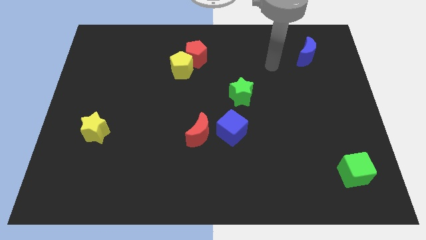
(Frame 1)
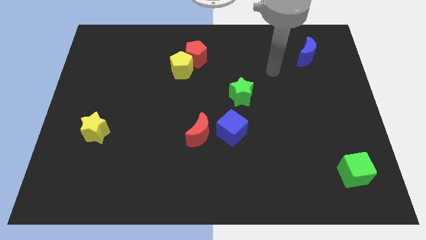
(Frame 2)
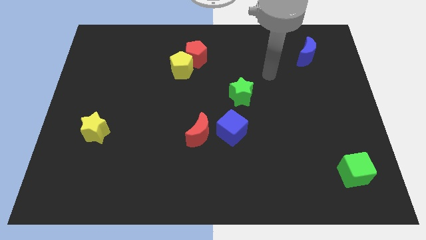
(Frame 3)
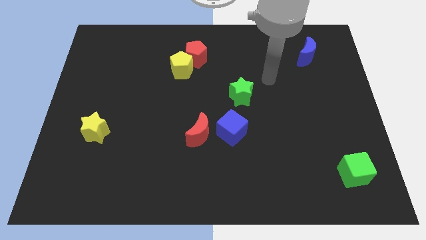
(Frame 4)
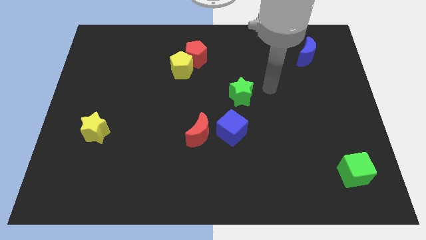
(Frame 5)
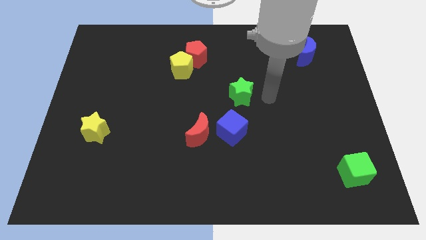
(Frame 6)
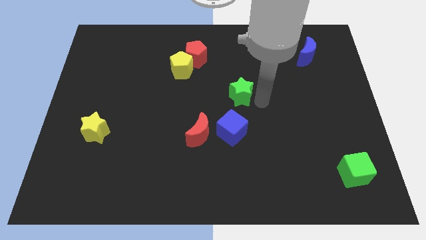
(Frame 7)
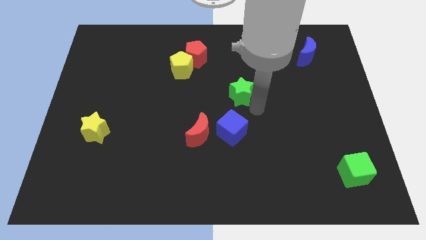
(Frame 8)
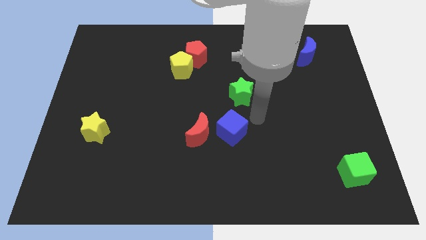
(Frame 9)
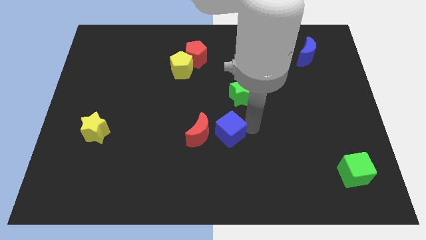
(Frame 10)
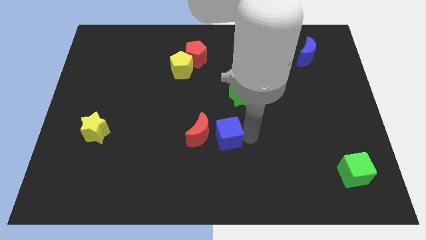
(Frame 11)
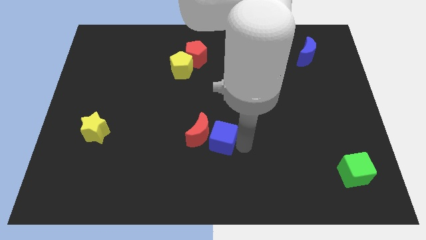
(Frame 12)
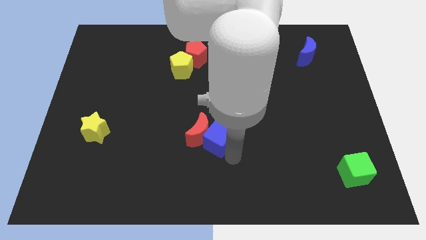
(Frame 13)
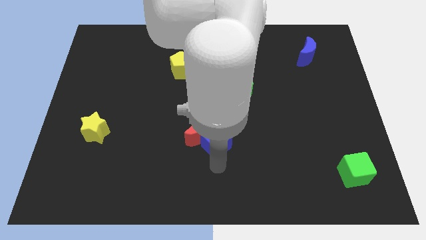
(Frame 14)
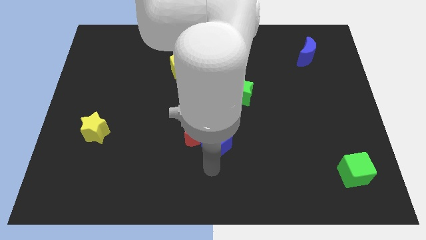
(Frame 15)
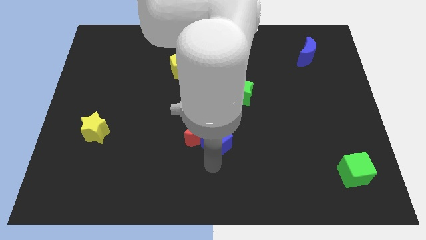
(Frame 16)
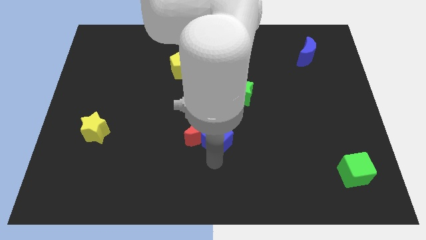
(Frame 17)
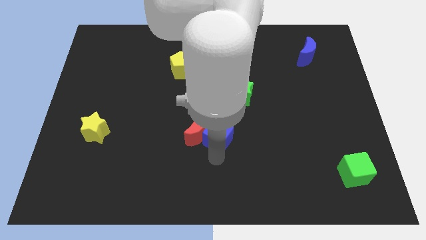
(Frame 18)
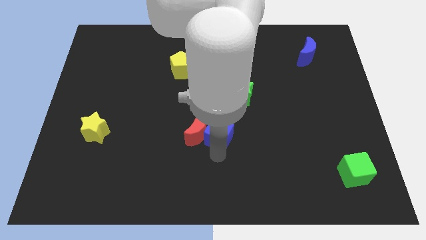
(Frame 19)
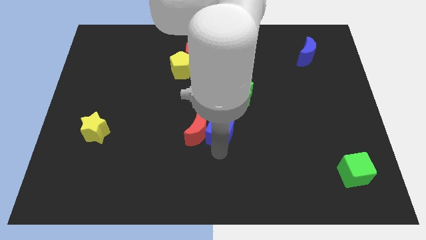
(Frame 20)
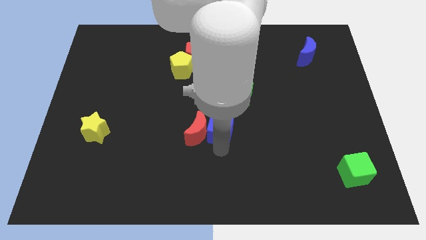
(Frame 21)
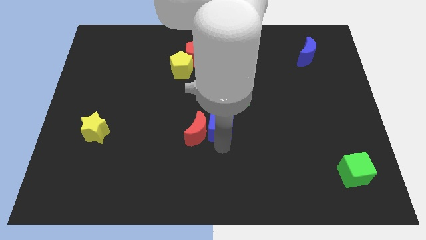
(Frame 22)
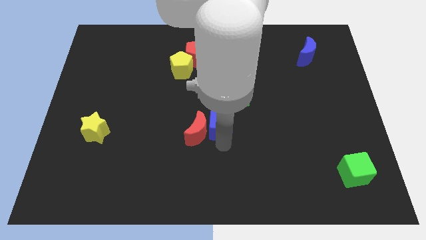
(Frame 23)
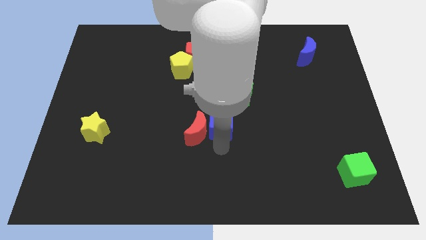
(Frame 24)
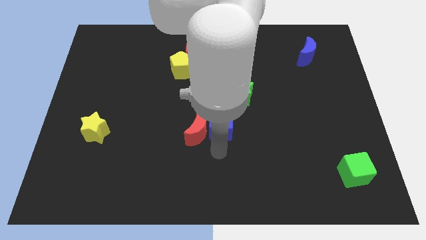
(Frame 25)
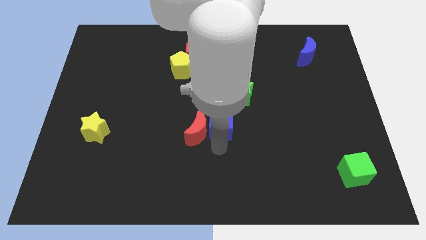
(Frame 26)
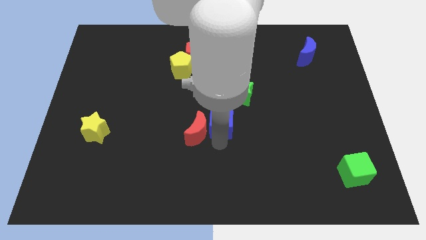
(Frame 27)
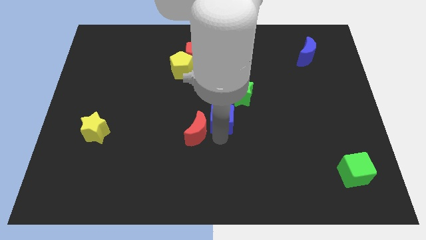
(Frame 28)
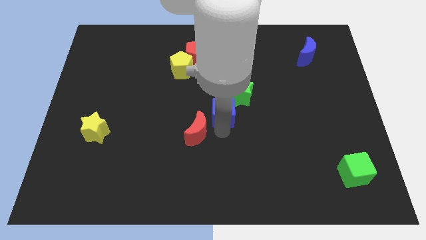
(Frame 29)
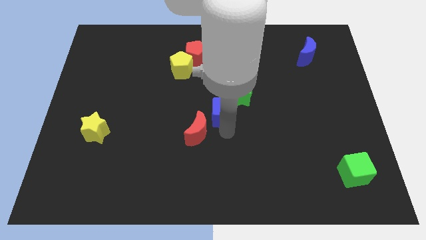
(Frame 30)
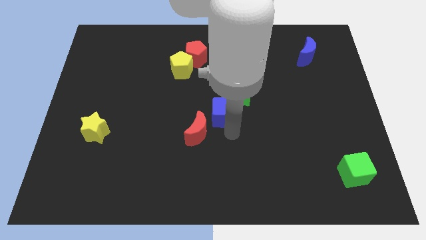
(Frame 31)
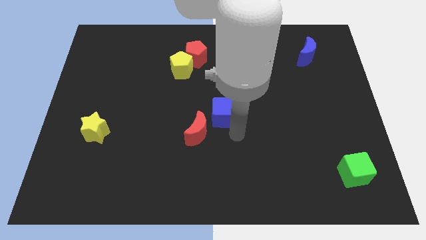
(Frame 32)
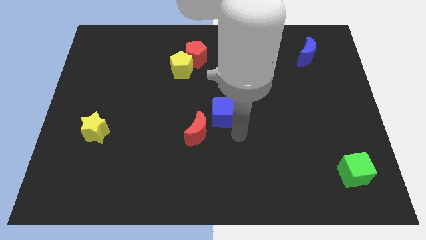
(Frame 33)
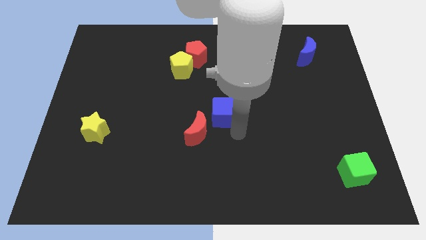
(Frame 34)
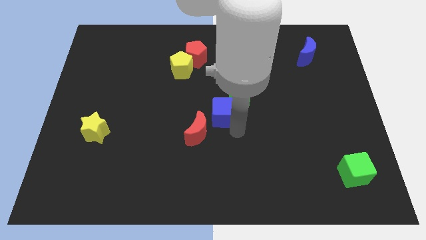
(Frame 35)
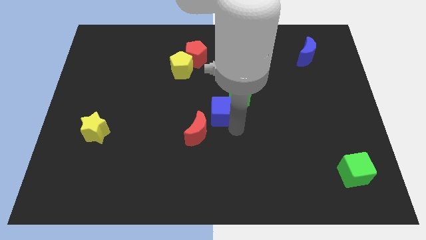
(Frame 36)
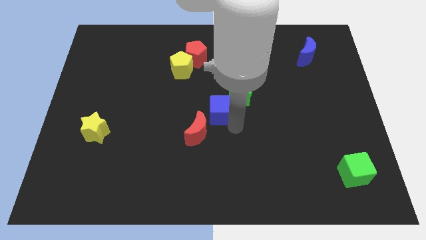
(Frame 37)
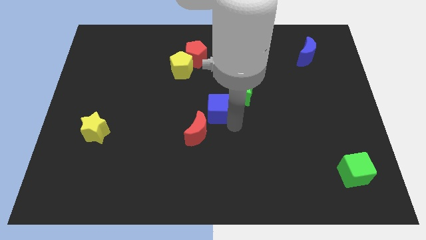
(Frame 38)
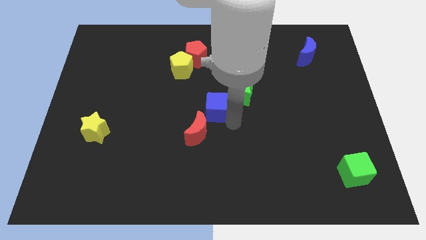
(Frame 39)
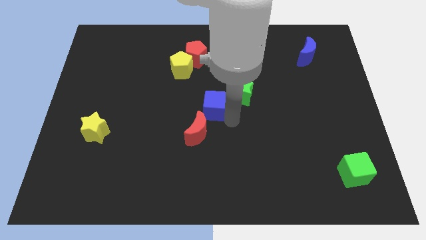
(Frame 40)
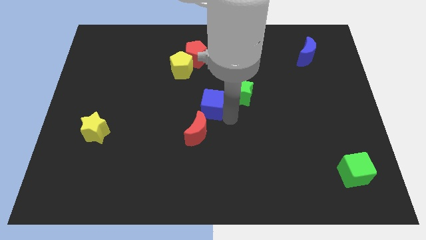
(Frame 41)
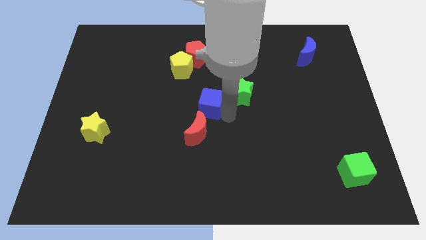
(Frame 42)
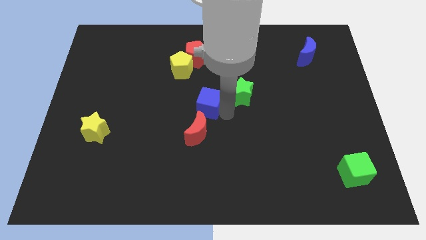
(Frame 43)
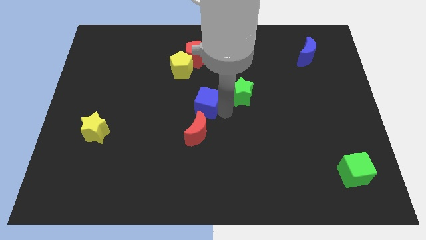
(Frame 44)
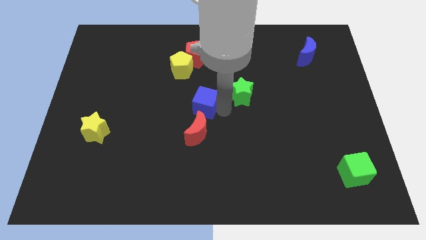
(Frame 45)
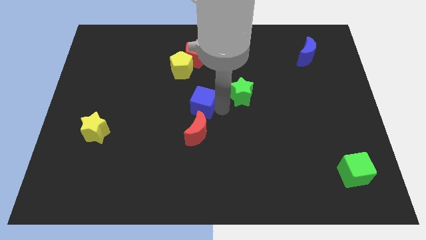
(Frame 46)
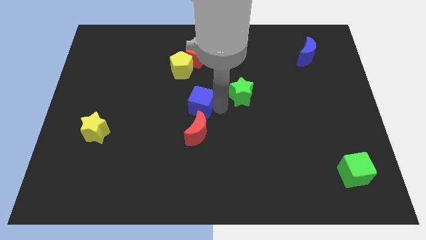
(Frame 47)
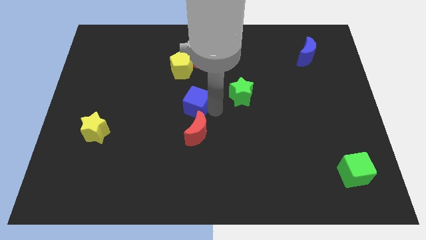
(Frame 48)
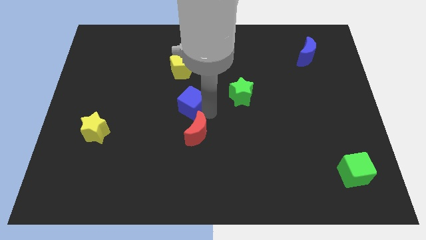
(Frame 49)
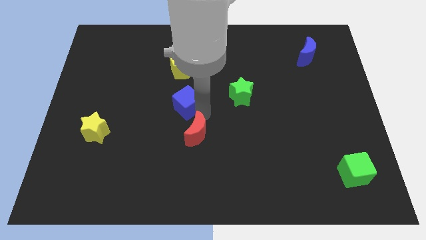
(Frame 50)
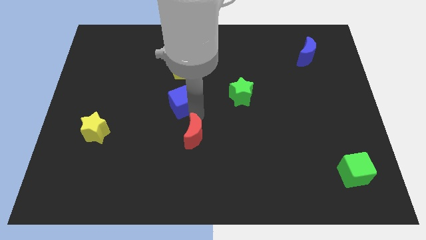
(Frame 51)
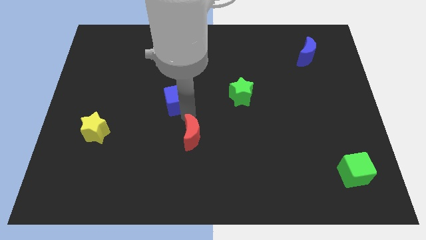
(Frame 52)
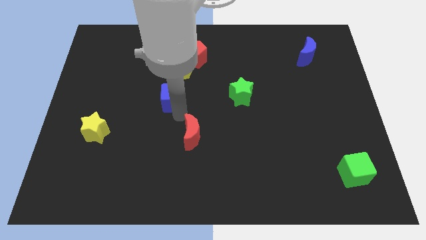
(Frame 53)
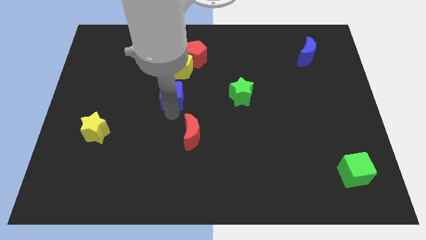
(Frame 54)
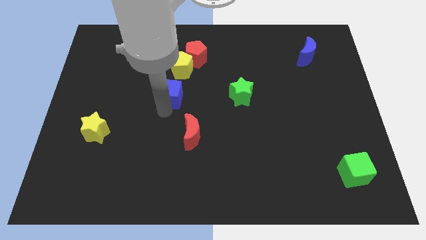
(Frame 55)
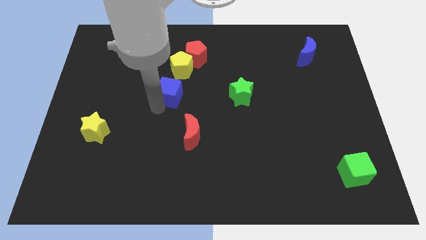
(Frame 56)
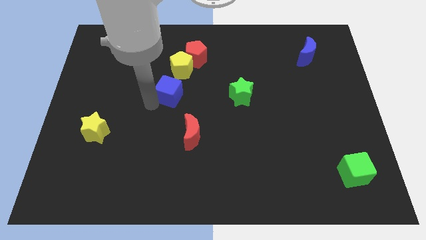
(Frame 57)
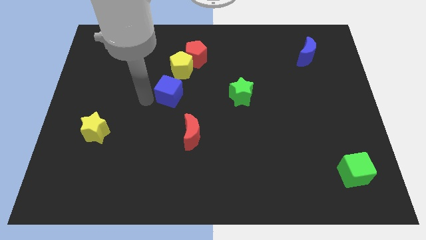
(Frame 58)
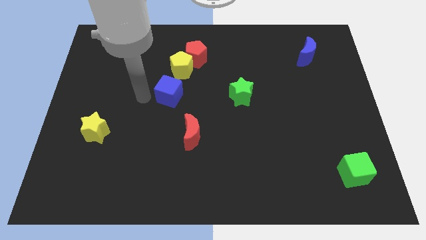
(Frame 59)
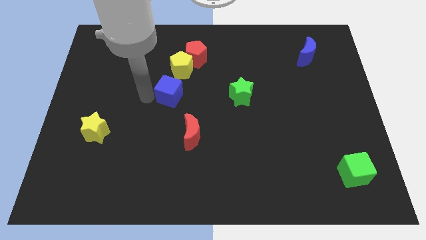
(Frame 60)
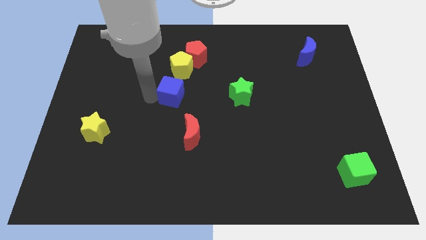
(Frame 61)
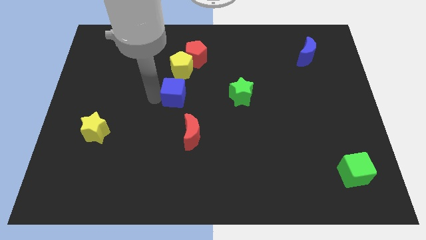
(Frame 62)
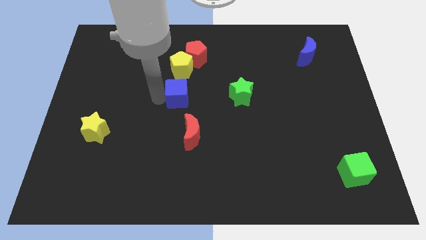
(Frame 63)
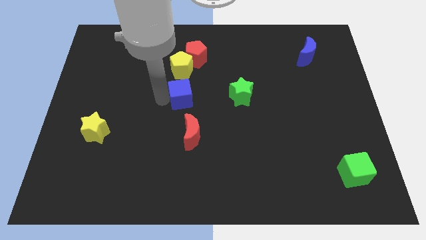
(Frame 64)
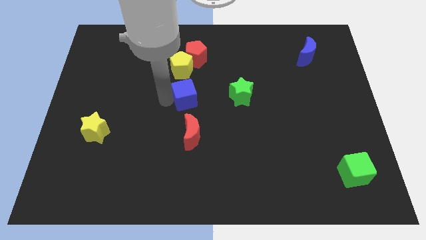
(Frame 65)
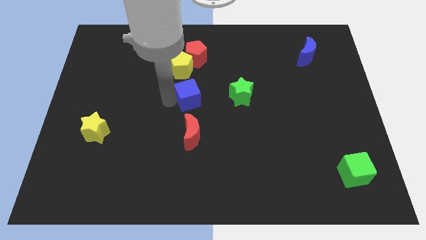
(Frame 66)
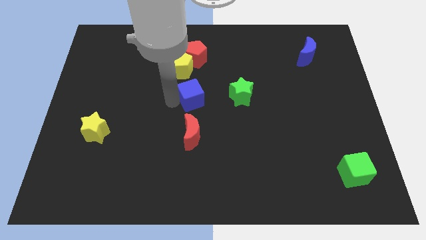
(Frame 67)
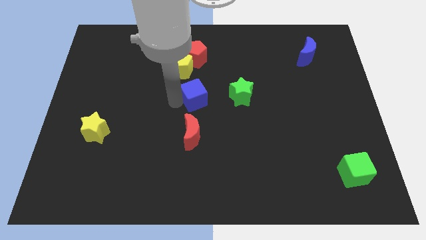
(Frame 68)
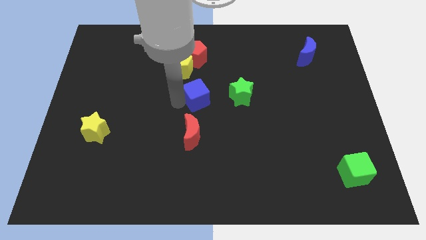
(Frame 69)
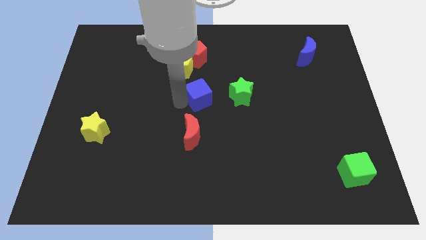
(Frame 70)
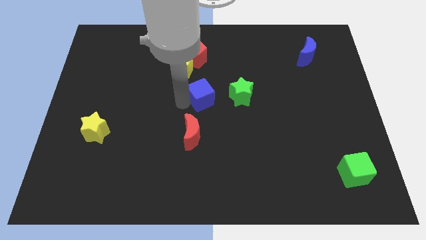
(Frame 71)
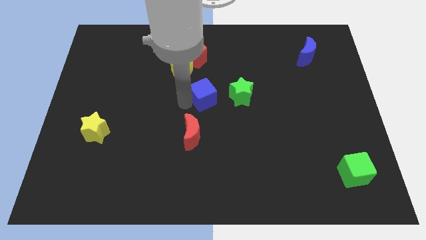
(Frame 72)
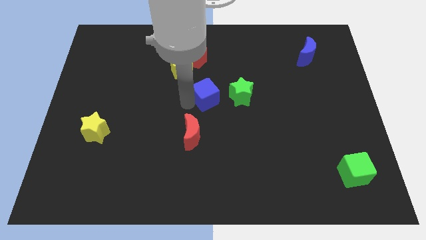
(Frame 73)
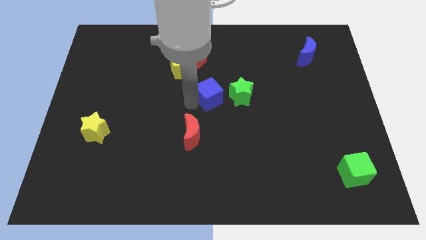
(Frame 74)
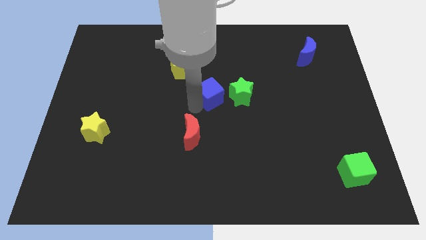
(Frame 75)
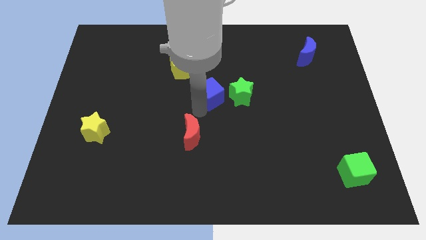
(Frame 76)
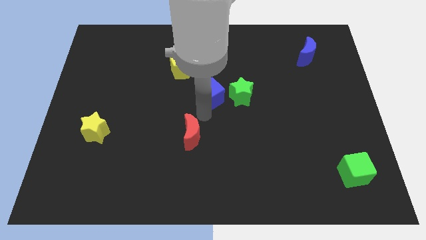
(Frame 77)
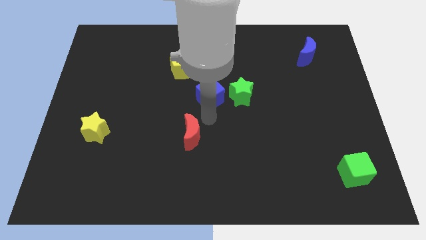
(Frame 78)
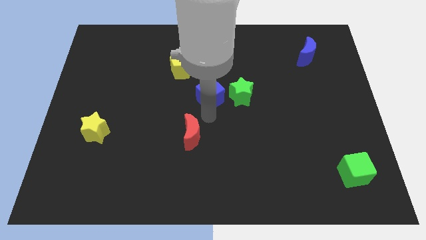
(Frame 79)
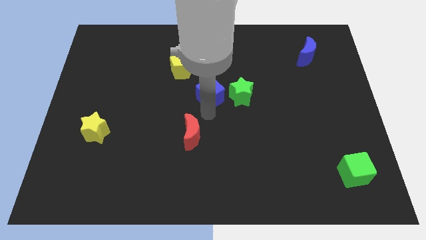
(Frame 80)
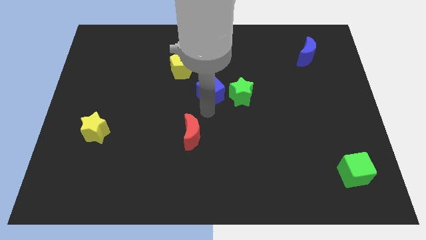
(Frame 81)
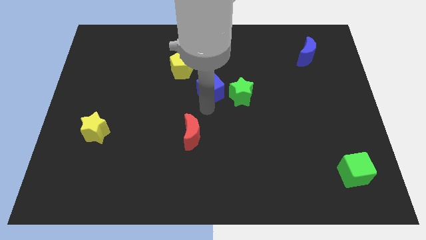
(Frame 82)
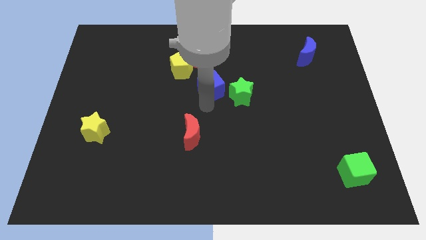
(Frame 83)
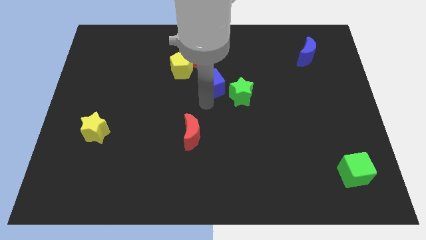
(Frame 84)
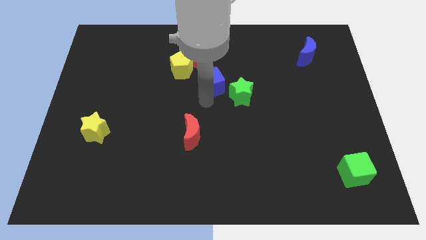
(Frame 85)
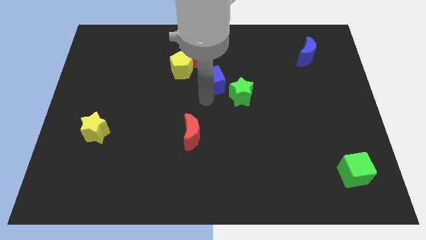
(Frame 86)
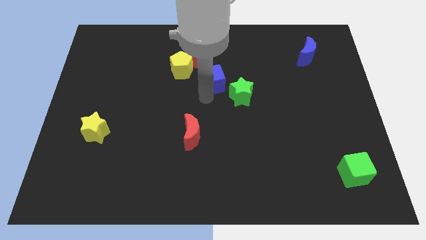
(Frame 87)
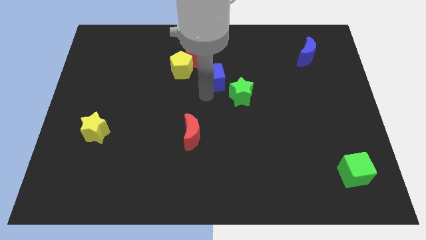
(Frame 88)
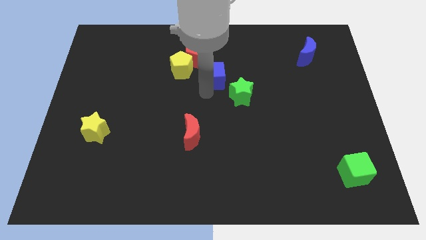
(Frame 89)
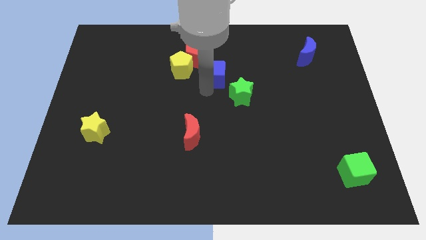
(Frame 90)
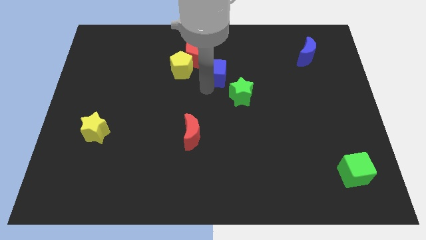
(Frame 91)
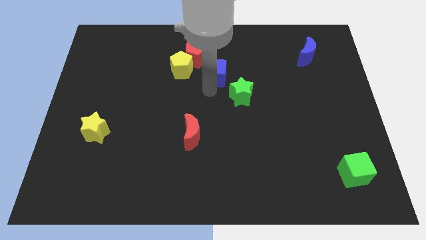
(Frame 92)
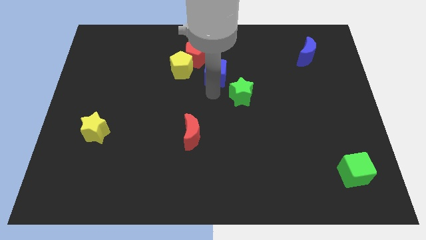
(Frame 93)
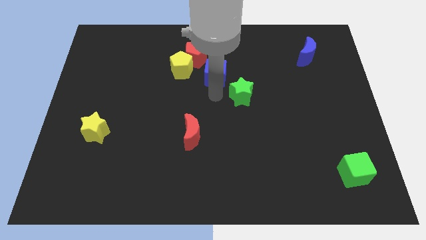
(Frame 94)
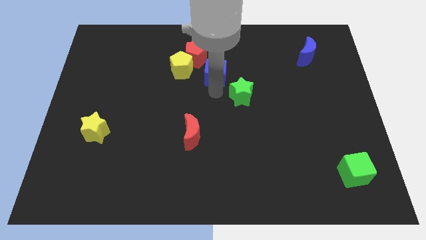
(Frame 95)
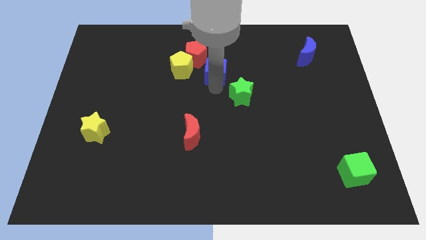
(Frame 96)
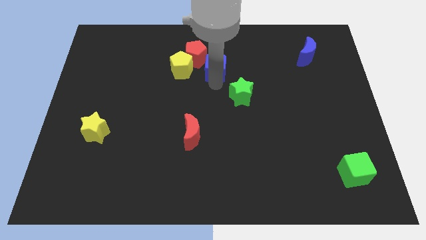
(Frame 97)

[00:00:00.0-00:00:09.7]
move the blue cube just right of the red pentagon
